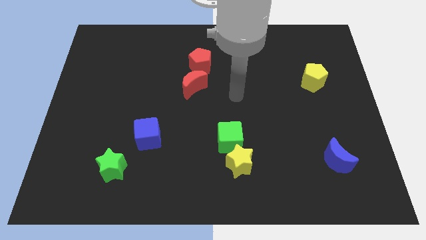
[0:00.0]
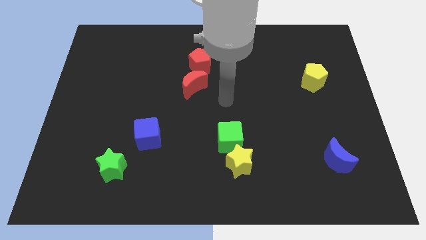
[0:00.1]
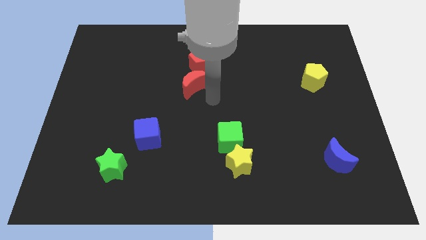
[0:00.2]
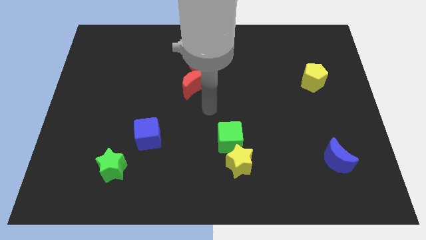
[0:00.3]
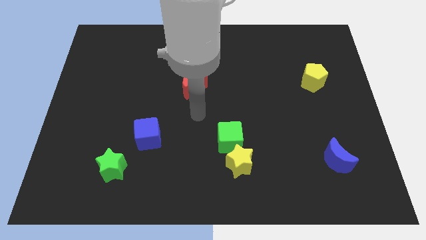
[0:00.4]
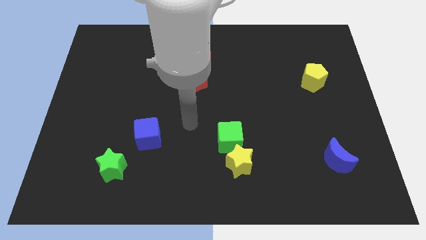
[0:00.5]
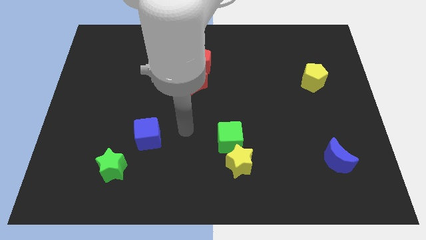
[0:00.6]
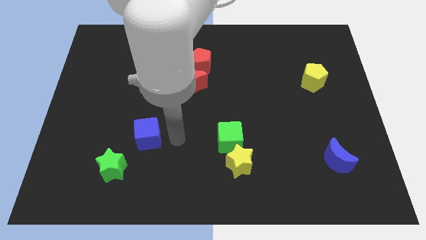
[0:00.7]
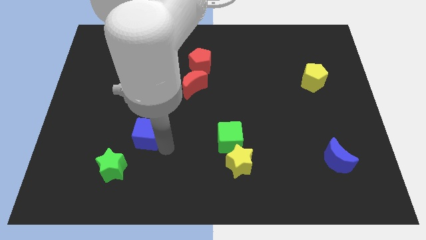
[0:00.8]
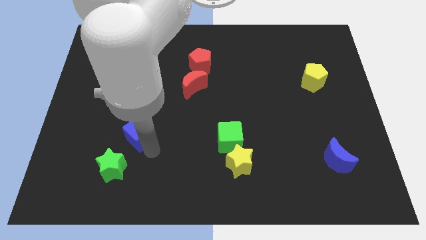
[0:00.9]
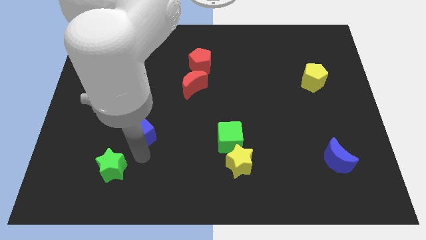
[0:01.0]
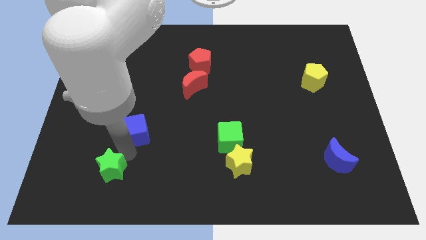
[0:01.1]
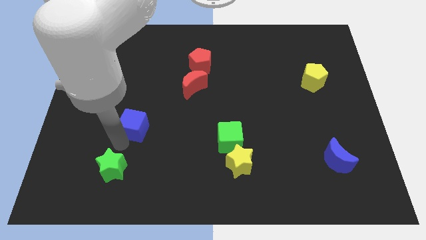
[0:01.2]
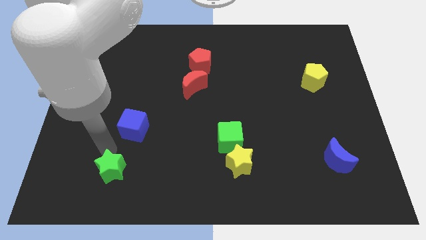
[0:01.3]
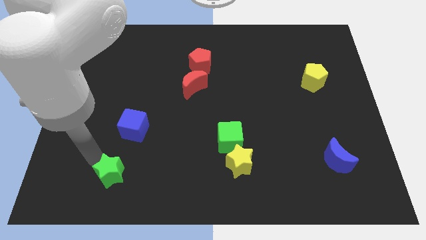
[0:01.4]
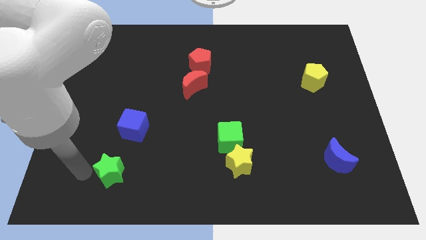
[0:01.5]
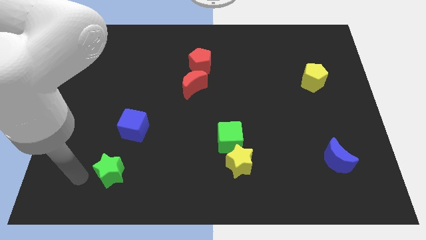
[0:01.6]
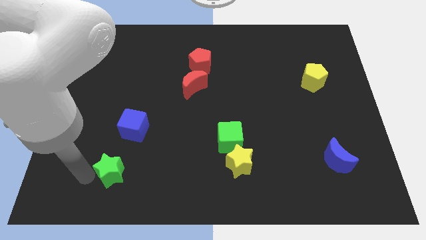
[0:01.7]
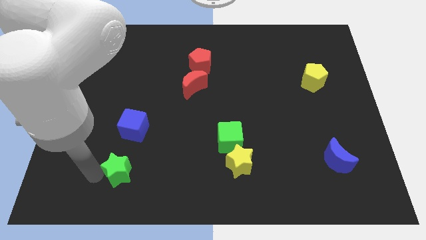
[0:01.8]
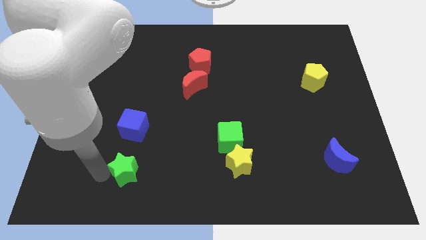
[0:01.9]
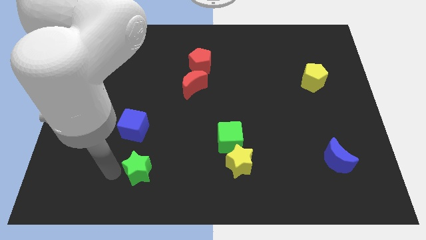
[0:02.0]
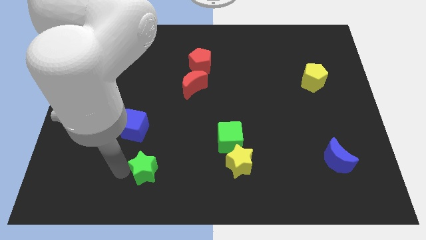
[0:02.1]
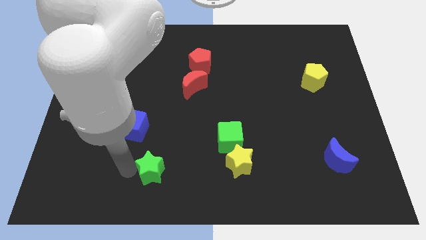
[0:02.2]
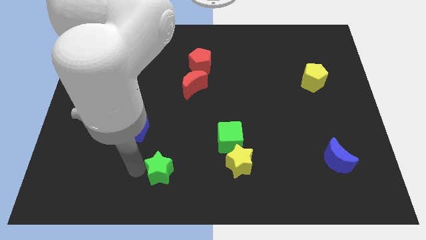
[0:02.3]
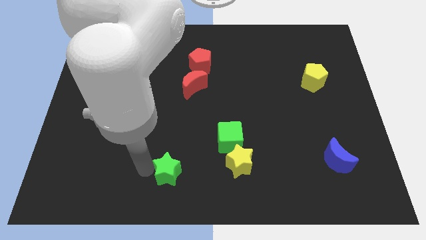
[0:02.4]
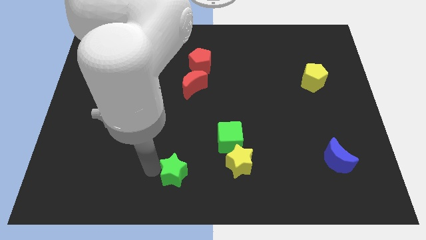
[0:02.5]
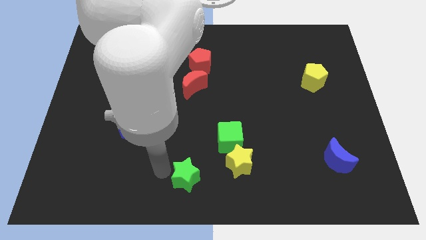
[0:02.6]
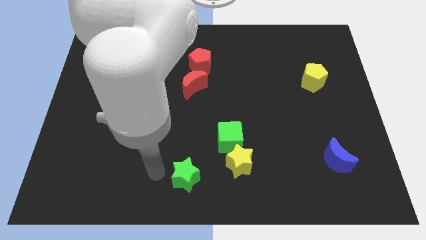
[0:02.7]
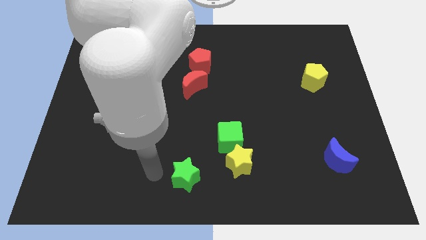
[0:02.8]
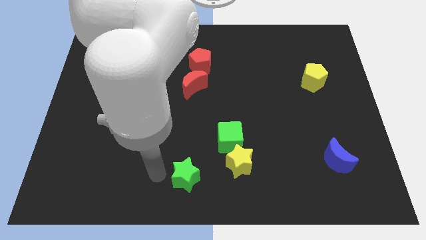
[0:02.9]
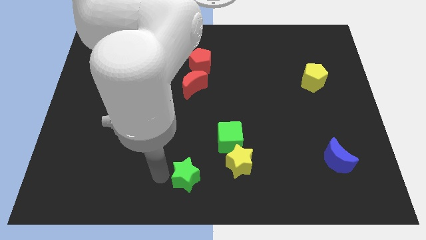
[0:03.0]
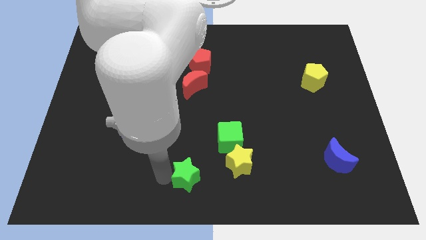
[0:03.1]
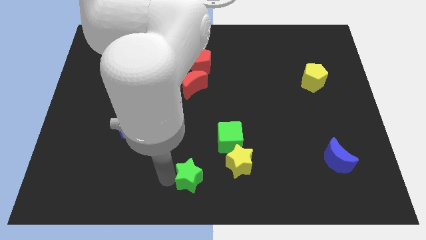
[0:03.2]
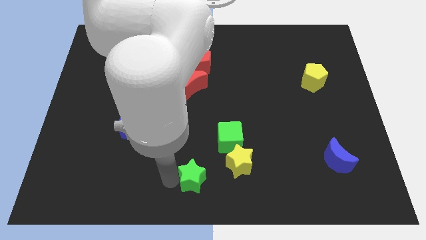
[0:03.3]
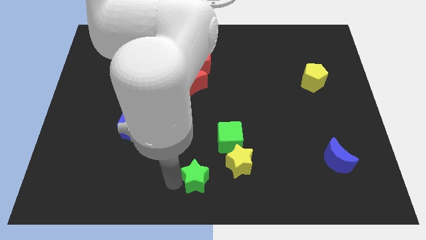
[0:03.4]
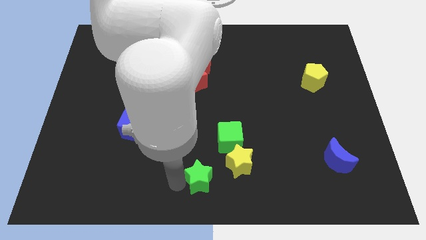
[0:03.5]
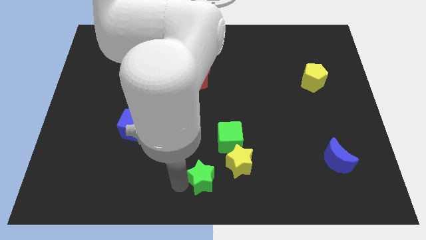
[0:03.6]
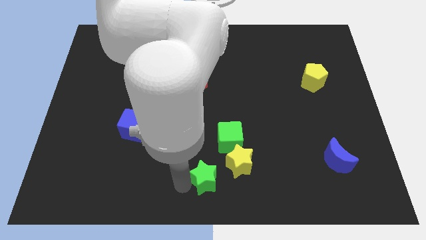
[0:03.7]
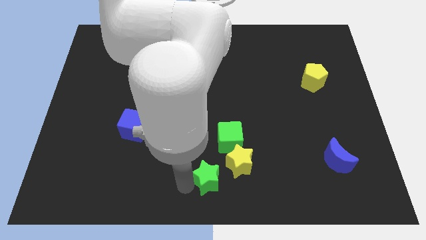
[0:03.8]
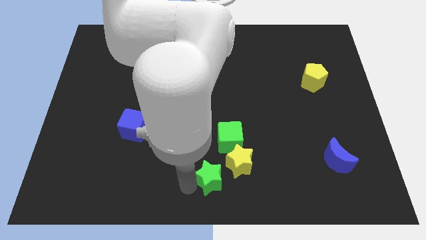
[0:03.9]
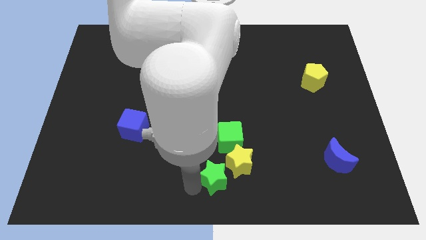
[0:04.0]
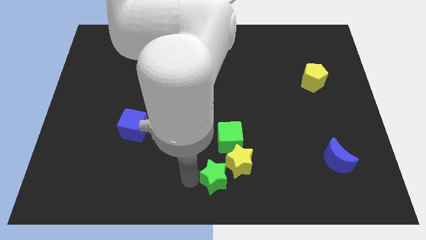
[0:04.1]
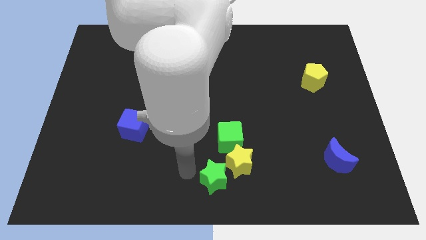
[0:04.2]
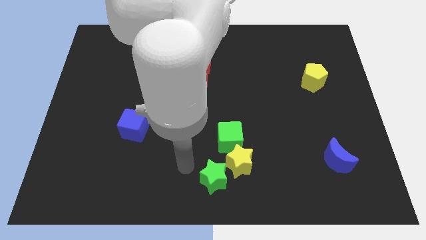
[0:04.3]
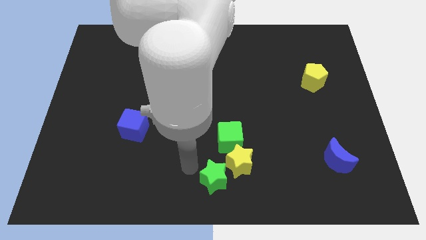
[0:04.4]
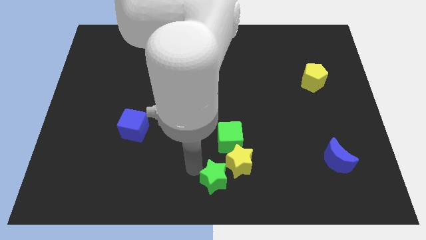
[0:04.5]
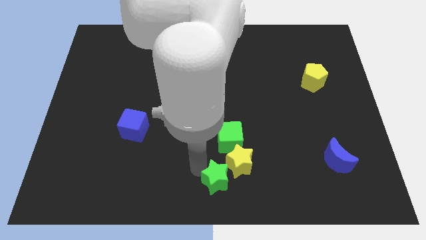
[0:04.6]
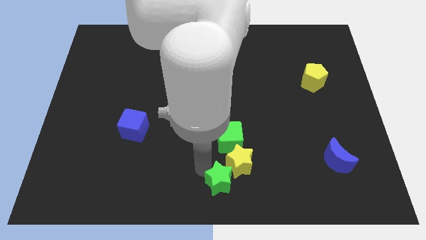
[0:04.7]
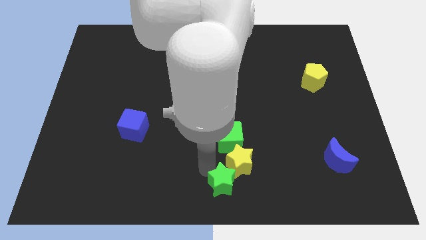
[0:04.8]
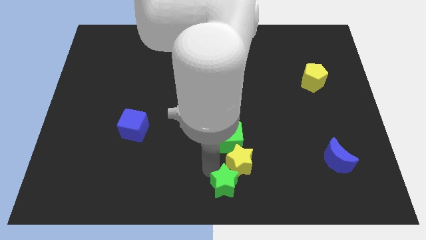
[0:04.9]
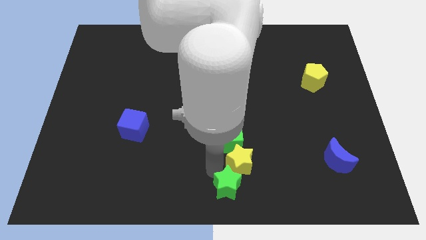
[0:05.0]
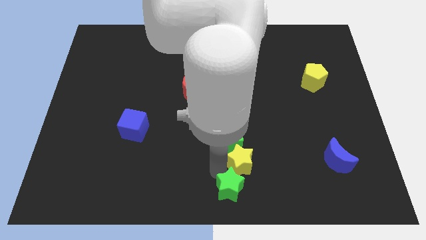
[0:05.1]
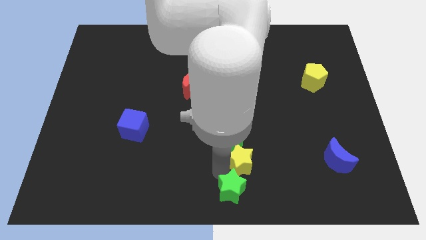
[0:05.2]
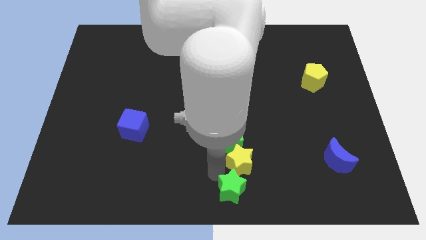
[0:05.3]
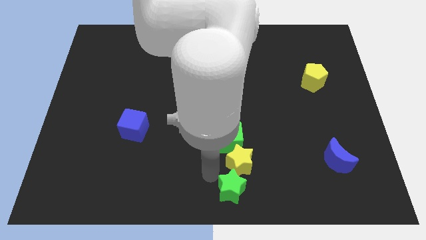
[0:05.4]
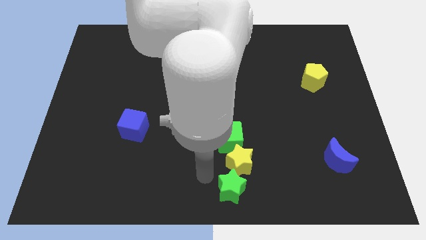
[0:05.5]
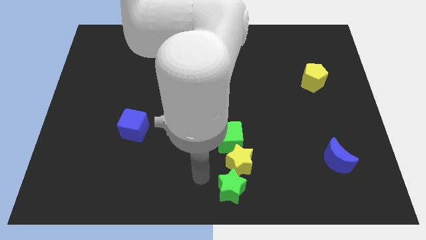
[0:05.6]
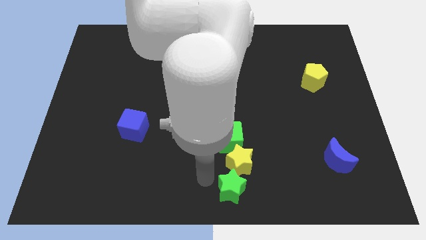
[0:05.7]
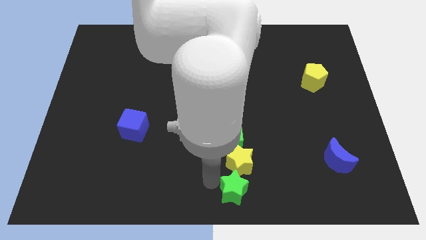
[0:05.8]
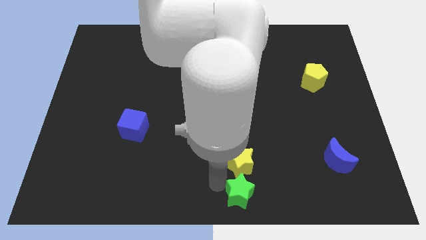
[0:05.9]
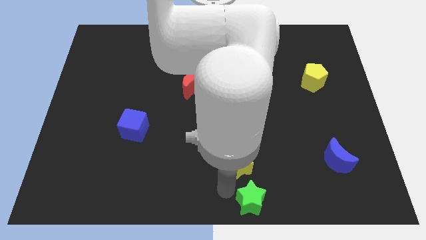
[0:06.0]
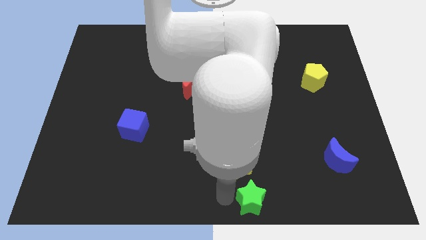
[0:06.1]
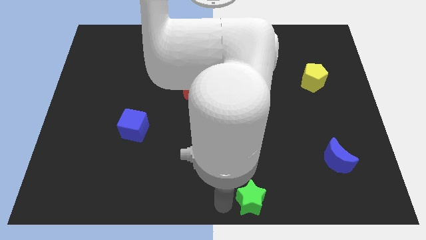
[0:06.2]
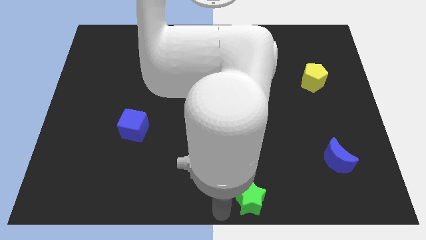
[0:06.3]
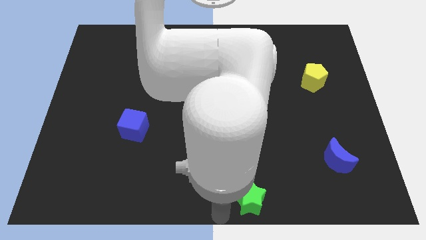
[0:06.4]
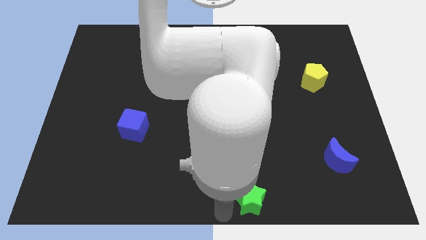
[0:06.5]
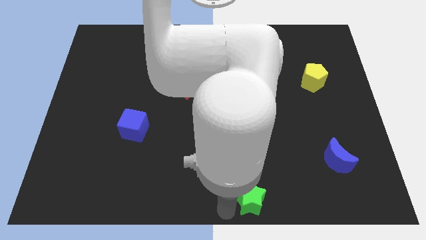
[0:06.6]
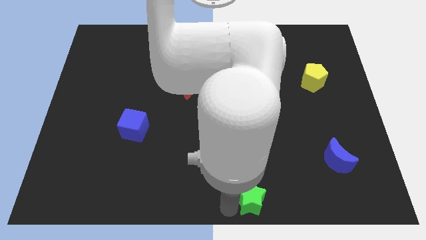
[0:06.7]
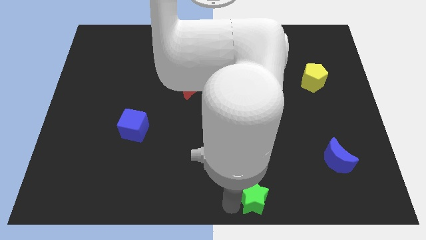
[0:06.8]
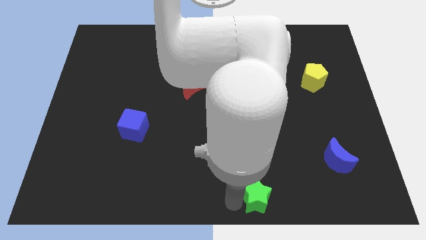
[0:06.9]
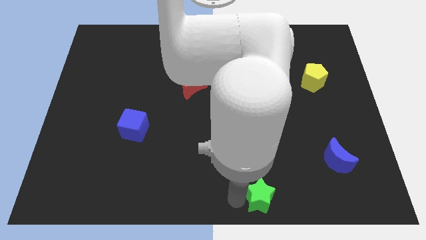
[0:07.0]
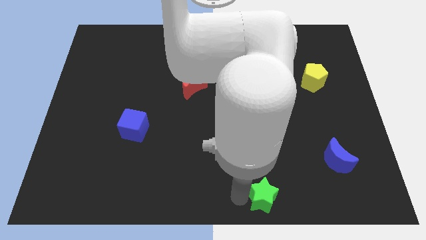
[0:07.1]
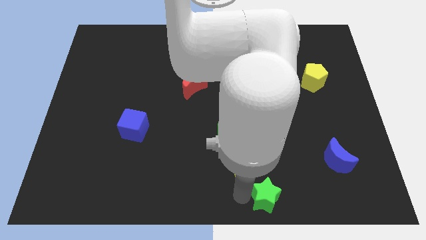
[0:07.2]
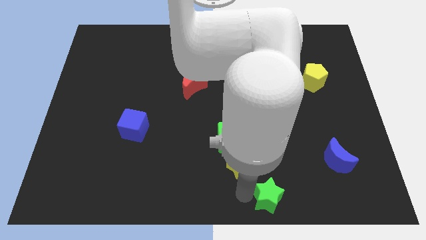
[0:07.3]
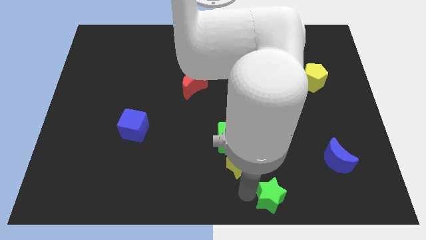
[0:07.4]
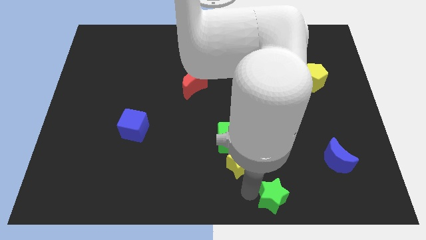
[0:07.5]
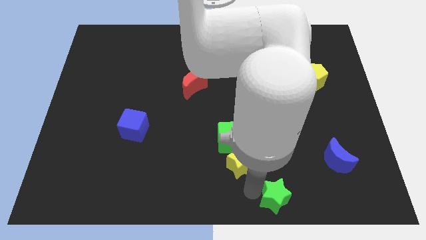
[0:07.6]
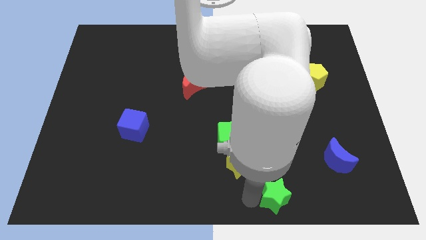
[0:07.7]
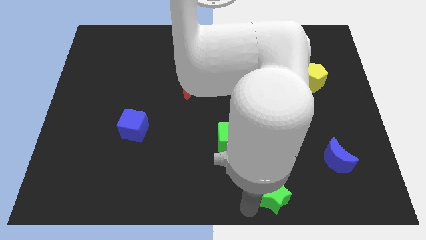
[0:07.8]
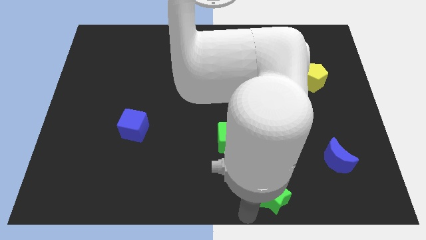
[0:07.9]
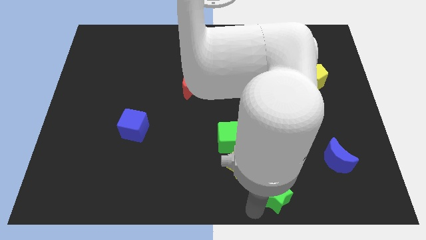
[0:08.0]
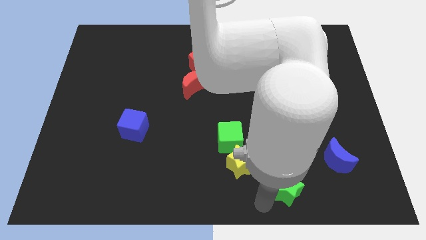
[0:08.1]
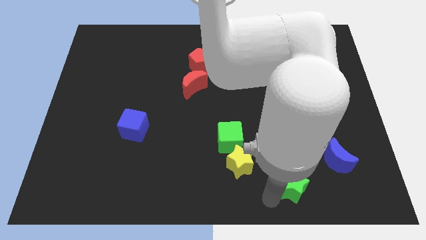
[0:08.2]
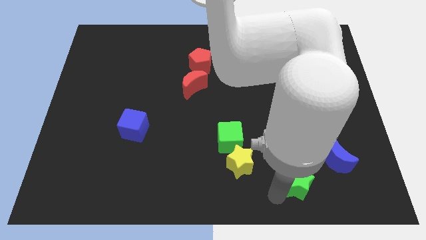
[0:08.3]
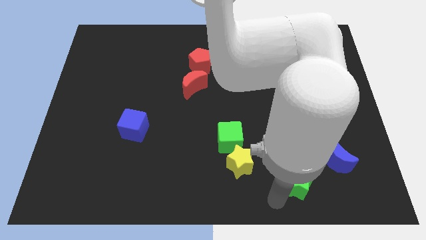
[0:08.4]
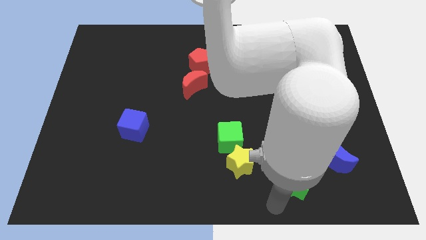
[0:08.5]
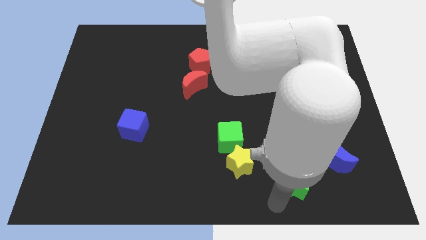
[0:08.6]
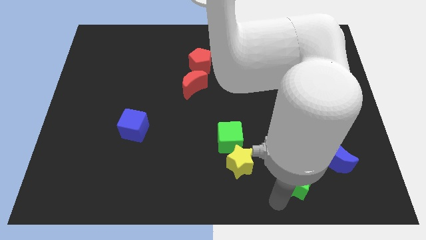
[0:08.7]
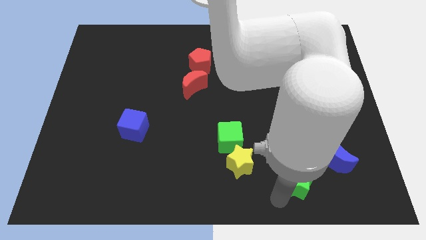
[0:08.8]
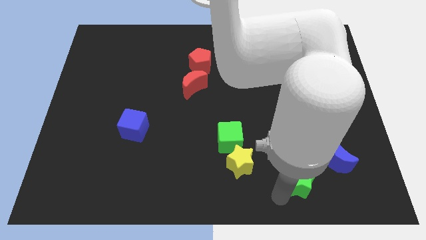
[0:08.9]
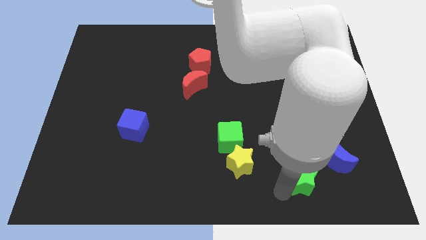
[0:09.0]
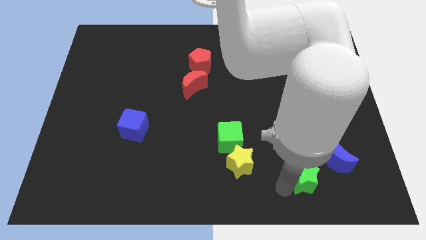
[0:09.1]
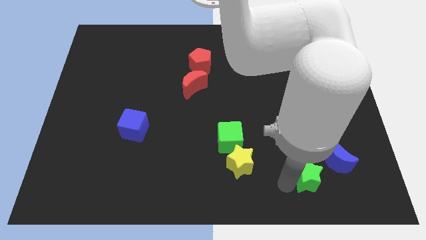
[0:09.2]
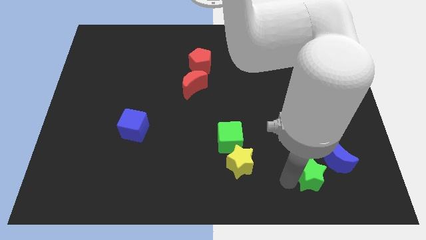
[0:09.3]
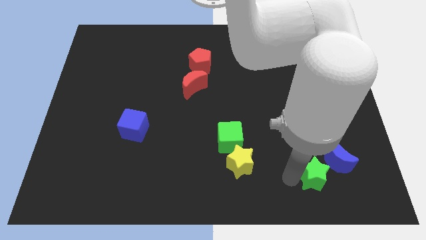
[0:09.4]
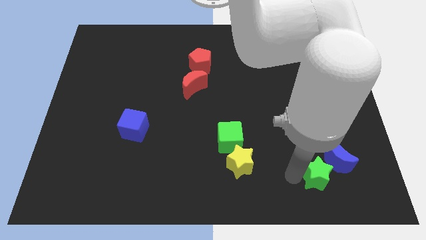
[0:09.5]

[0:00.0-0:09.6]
put the green star to the blue moon
